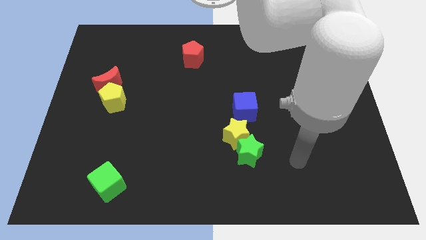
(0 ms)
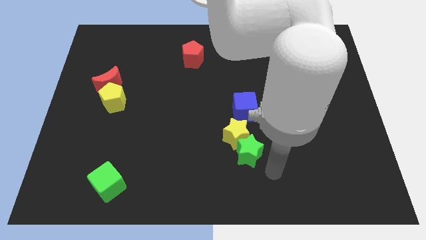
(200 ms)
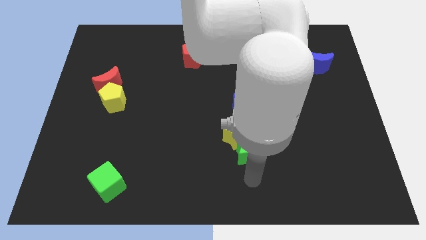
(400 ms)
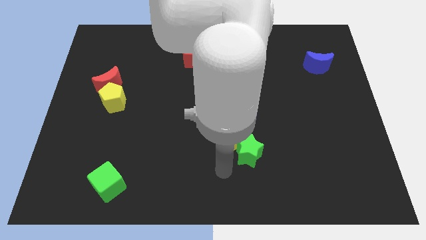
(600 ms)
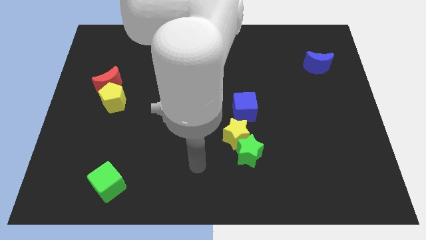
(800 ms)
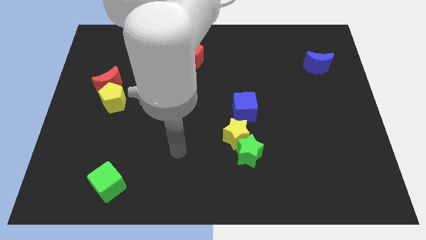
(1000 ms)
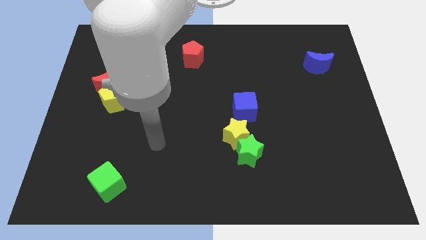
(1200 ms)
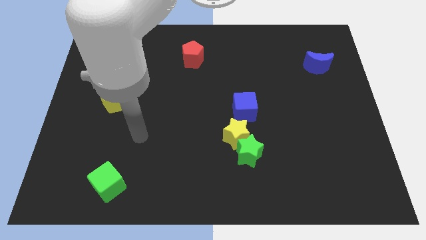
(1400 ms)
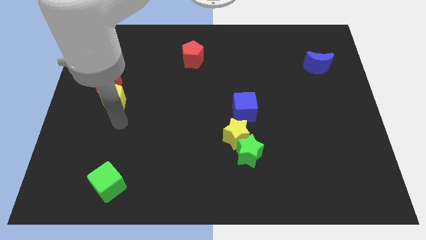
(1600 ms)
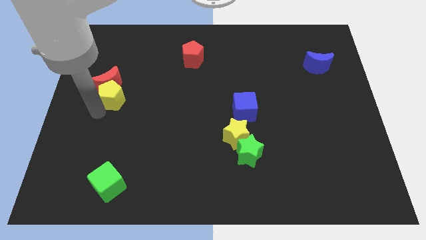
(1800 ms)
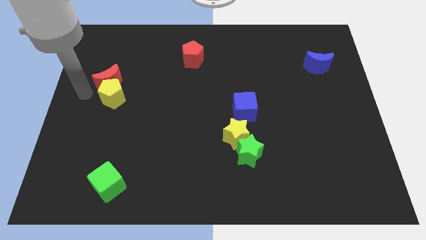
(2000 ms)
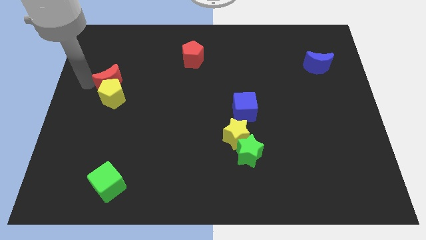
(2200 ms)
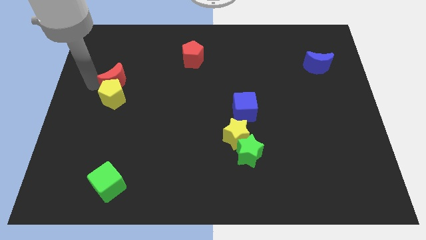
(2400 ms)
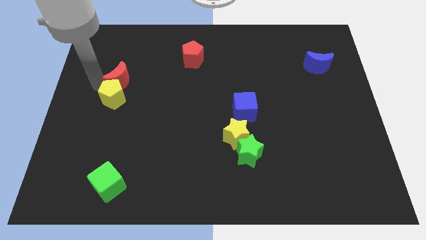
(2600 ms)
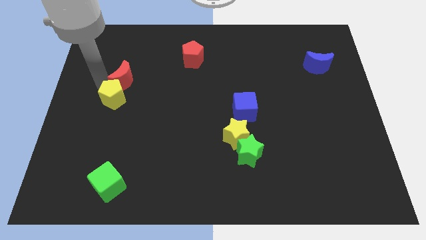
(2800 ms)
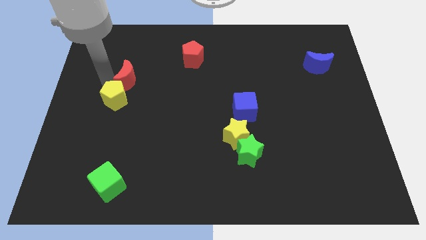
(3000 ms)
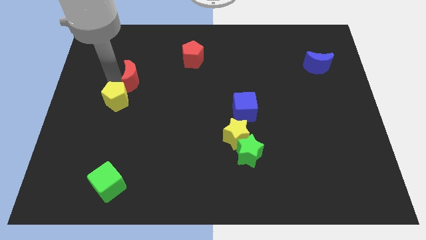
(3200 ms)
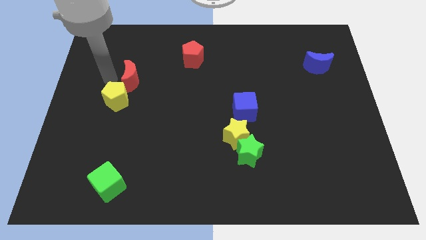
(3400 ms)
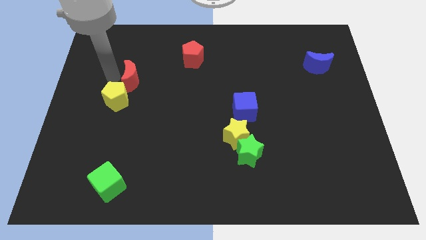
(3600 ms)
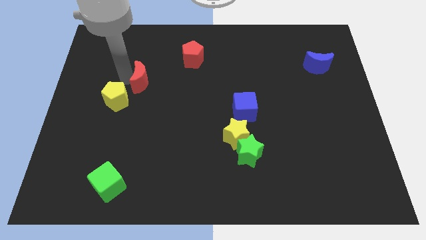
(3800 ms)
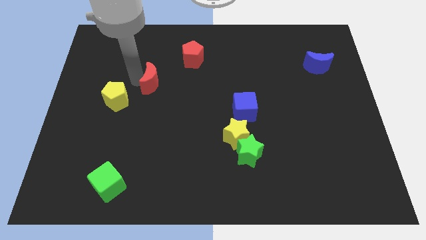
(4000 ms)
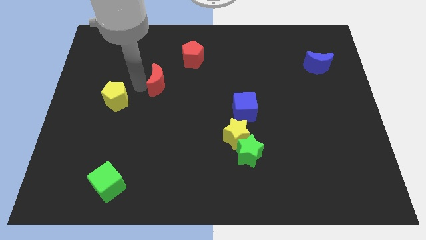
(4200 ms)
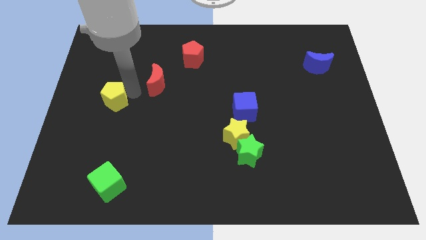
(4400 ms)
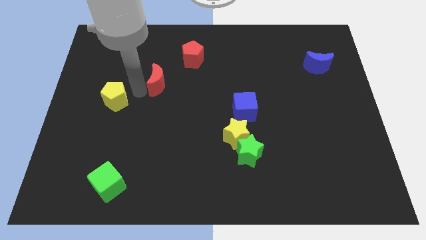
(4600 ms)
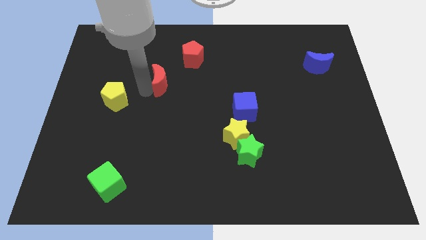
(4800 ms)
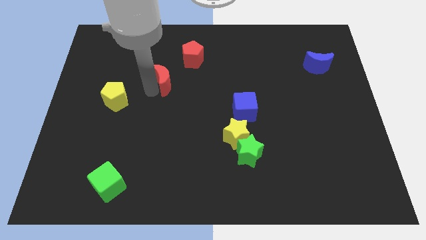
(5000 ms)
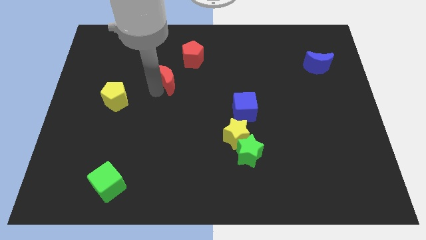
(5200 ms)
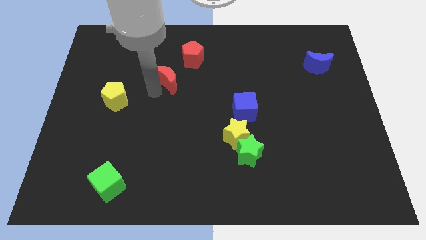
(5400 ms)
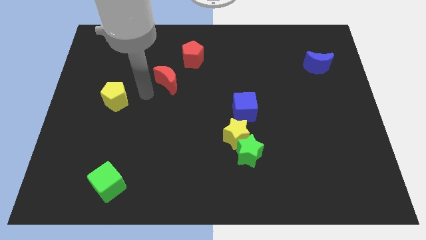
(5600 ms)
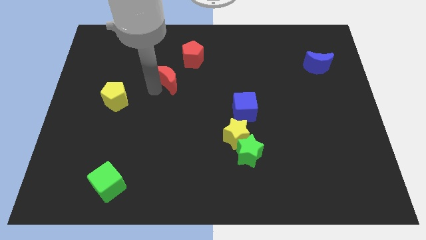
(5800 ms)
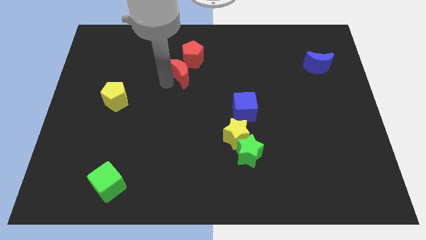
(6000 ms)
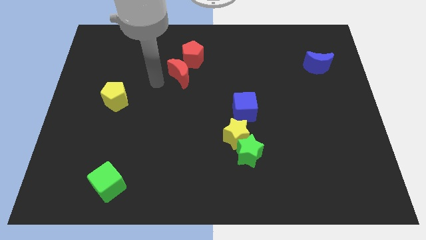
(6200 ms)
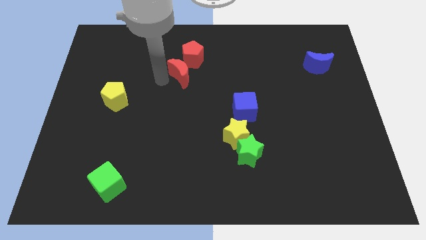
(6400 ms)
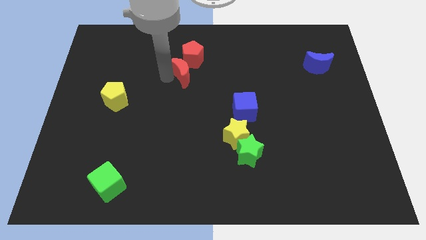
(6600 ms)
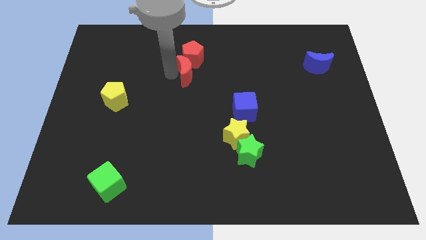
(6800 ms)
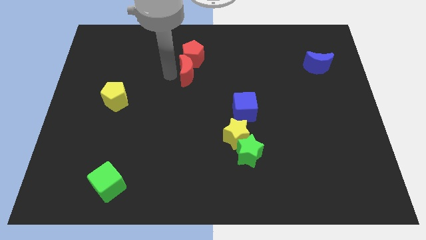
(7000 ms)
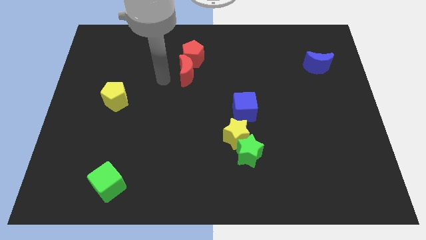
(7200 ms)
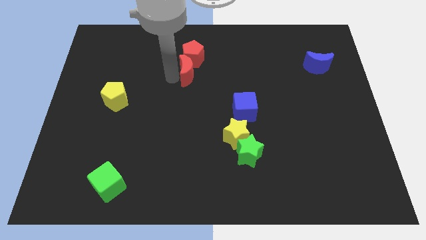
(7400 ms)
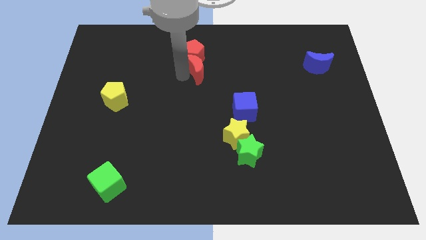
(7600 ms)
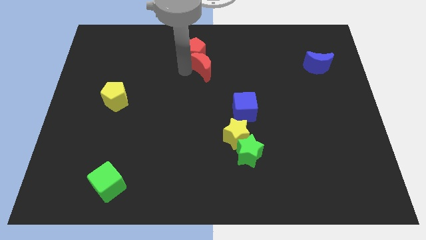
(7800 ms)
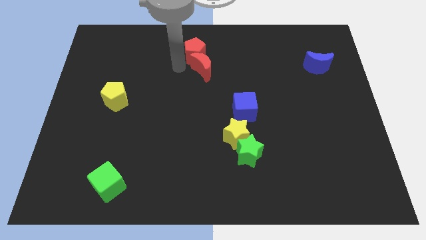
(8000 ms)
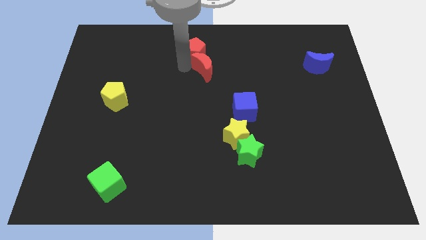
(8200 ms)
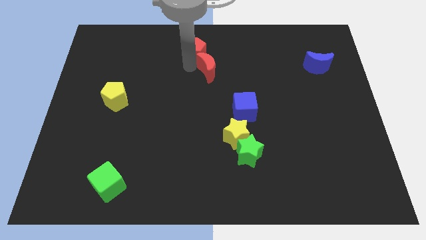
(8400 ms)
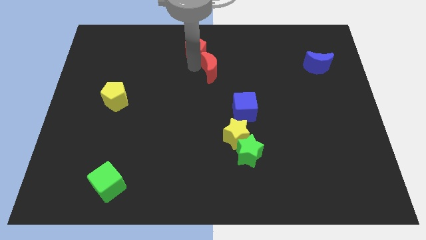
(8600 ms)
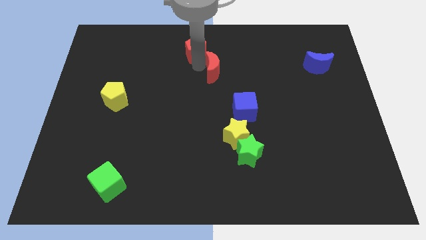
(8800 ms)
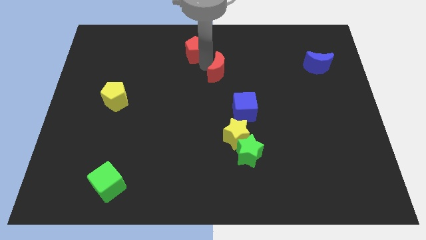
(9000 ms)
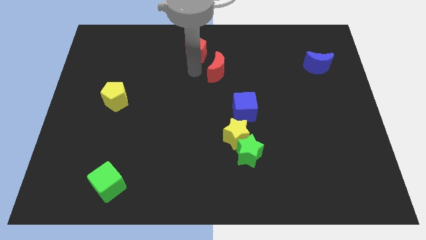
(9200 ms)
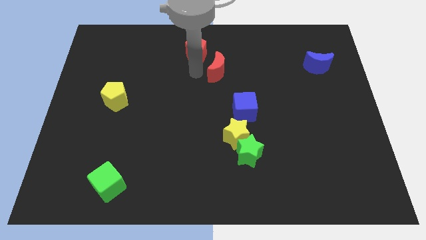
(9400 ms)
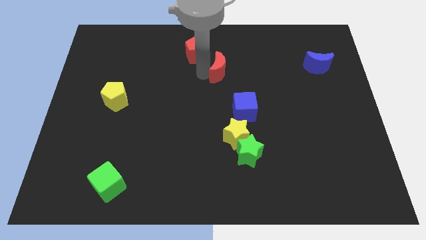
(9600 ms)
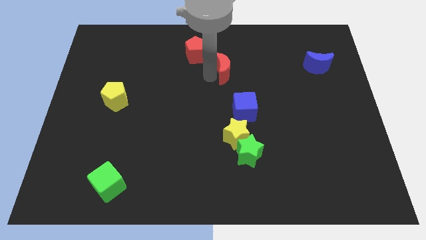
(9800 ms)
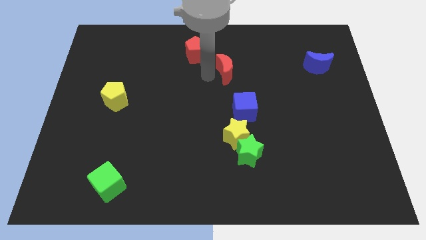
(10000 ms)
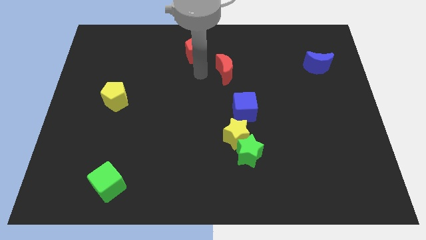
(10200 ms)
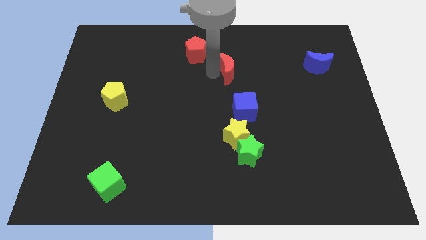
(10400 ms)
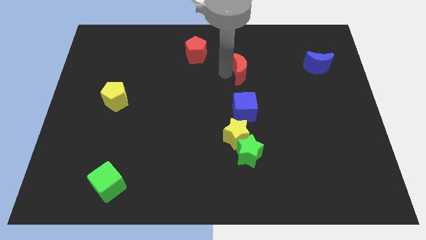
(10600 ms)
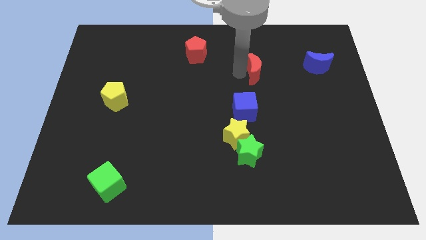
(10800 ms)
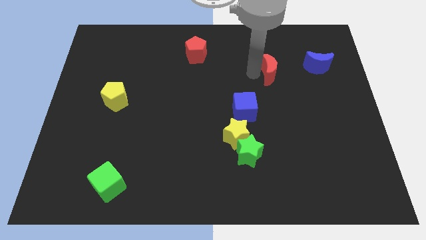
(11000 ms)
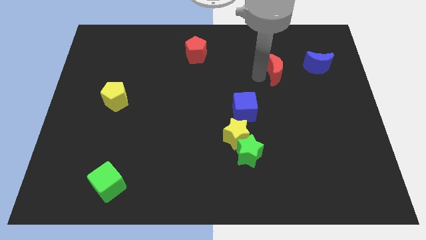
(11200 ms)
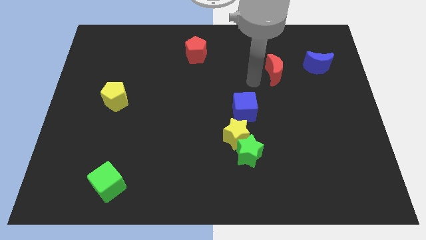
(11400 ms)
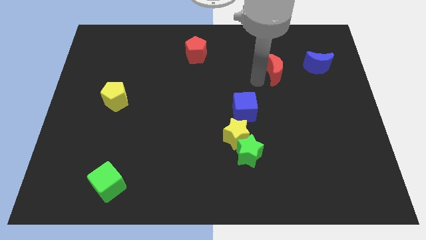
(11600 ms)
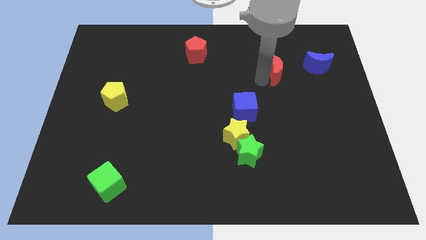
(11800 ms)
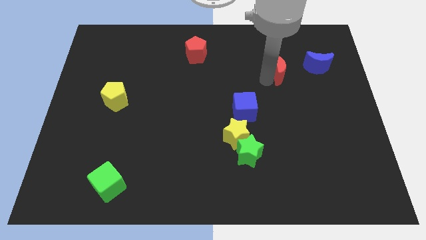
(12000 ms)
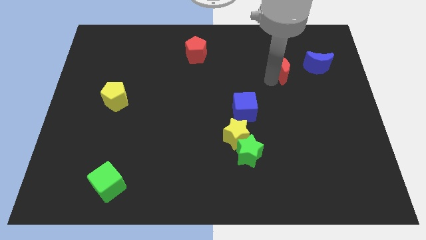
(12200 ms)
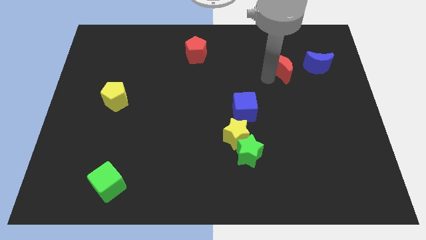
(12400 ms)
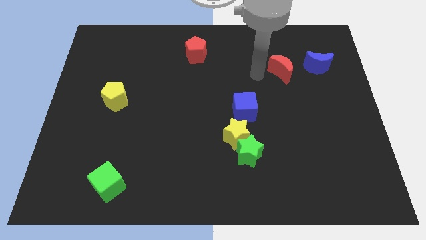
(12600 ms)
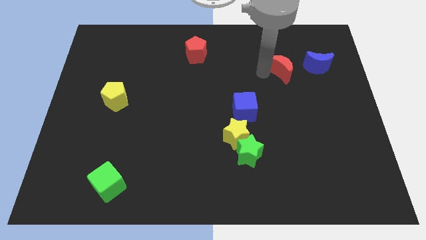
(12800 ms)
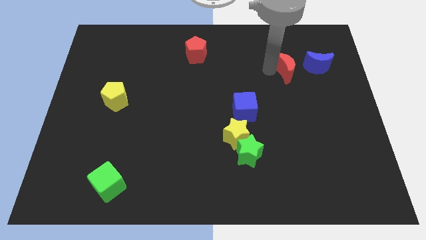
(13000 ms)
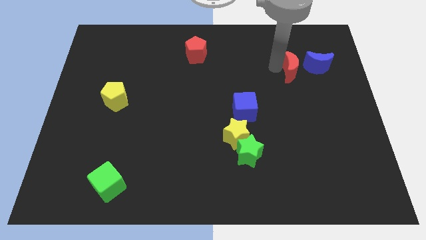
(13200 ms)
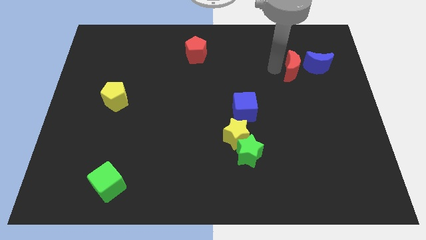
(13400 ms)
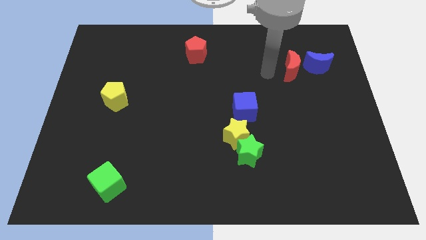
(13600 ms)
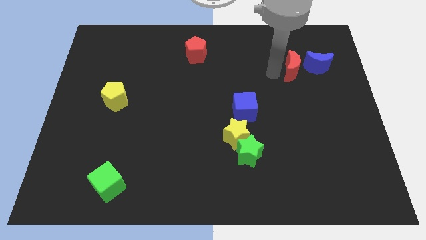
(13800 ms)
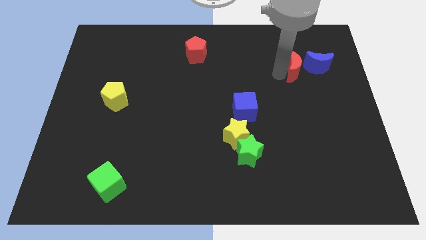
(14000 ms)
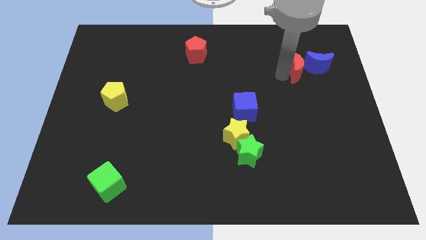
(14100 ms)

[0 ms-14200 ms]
push the red moon to the blue moon
